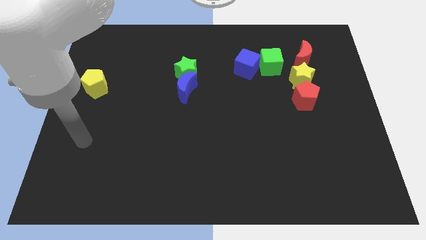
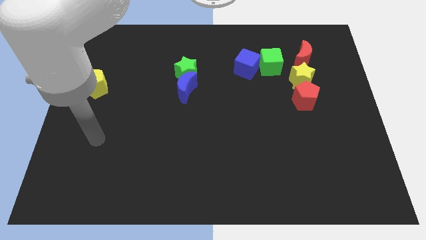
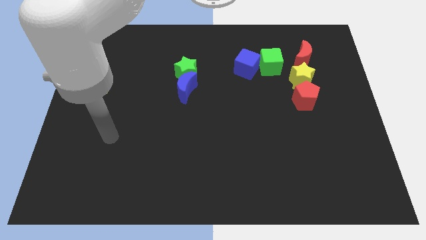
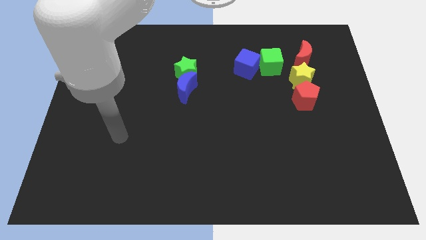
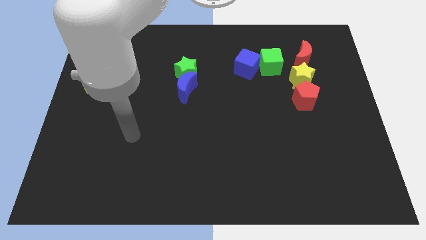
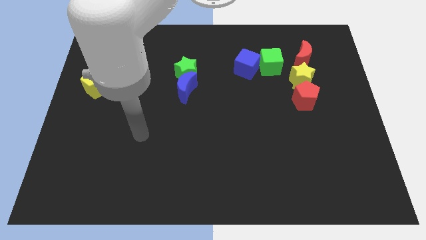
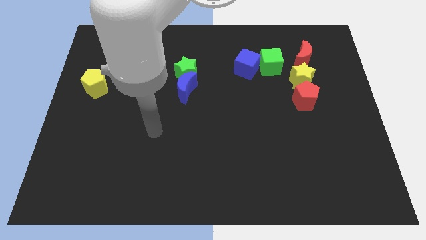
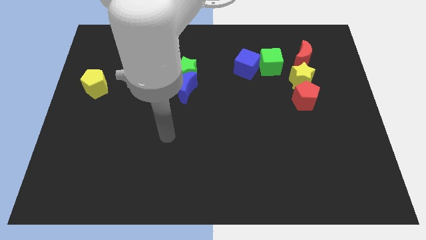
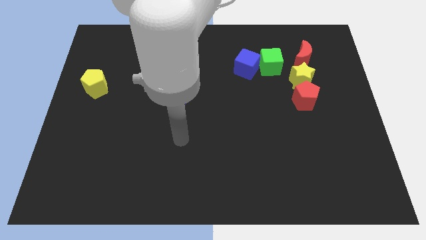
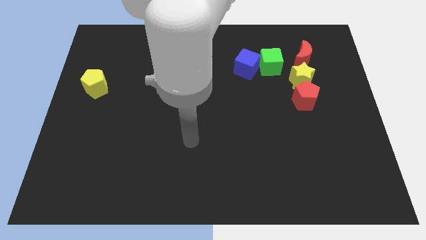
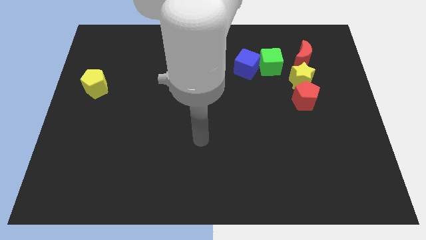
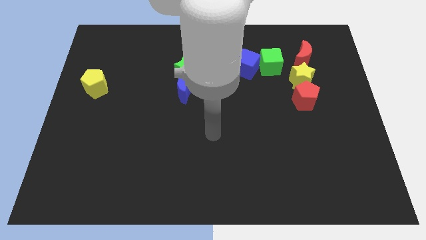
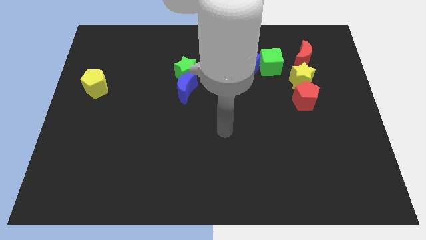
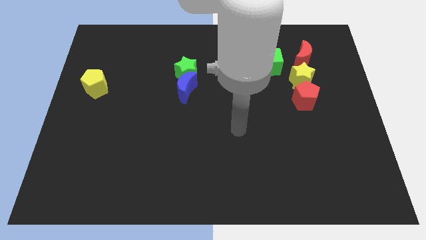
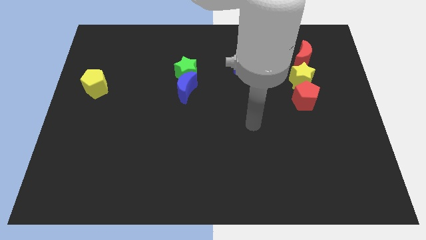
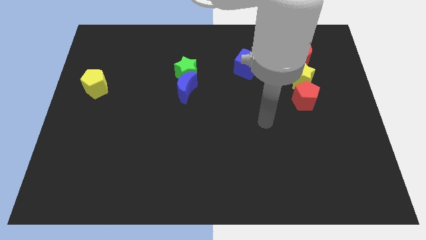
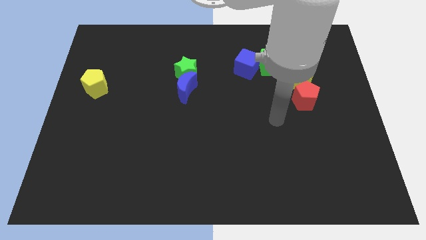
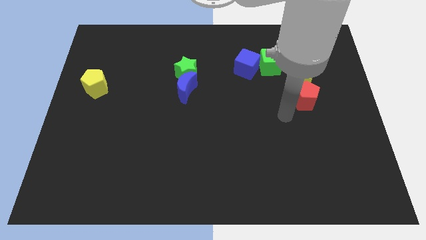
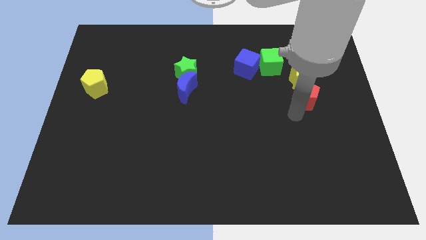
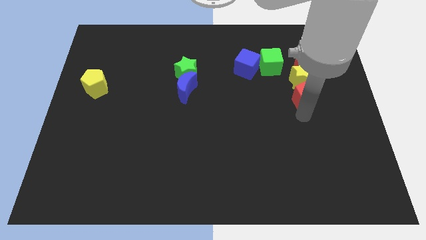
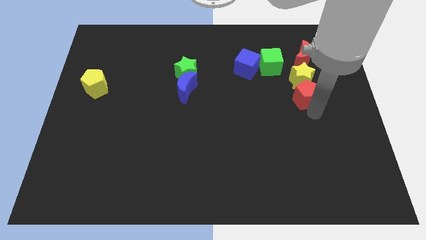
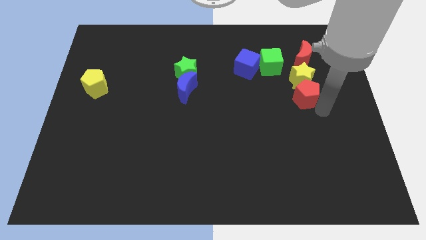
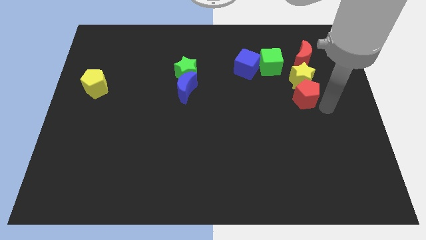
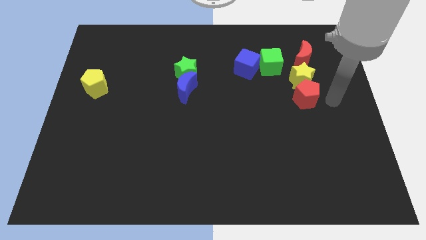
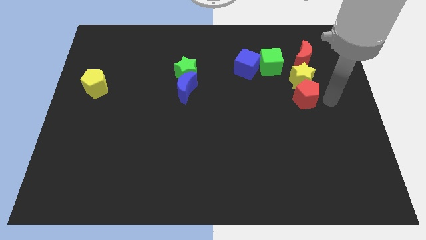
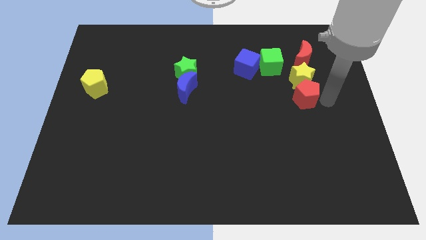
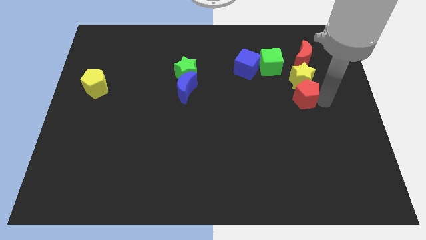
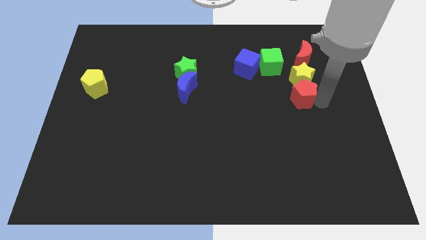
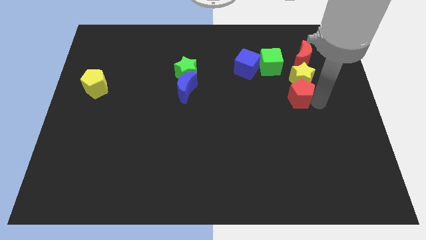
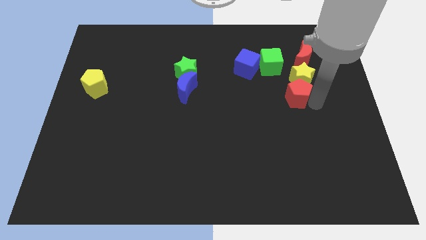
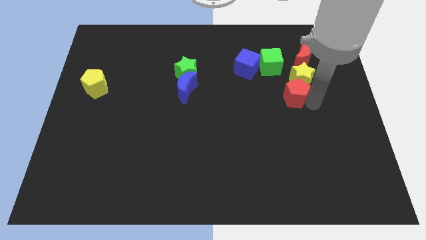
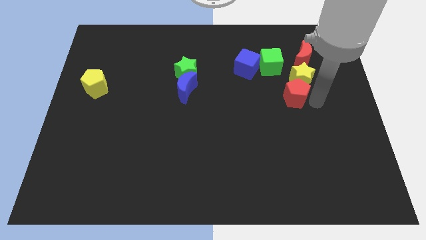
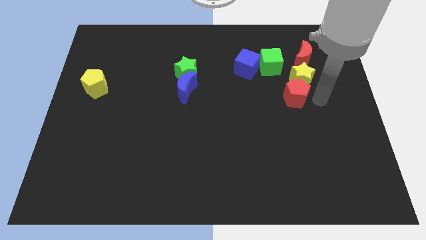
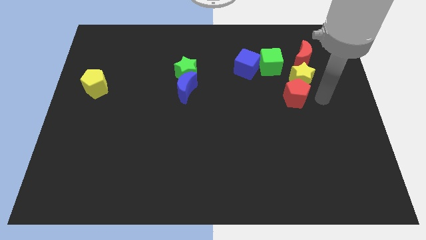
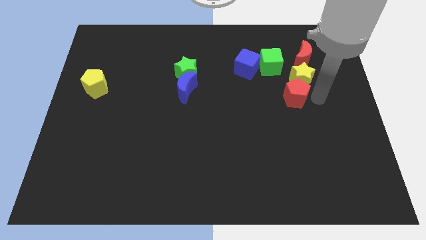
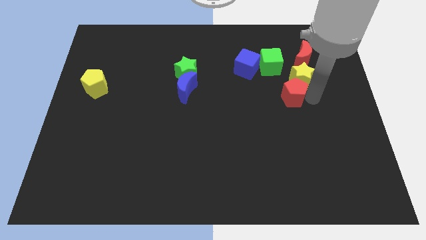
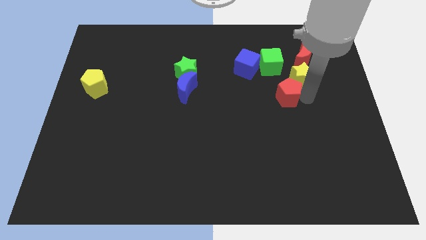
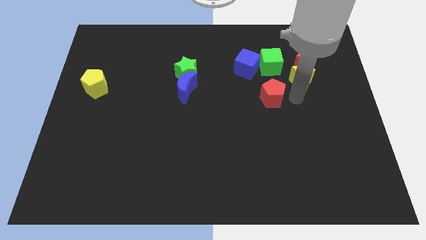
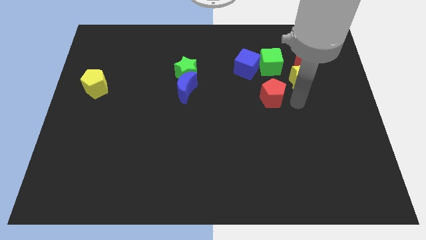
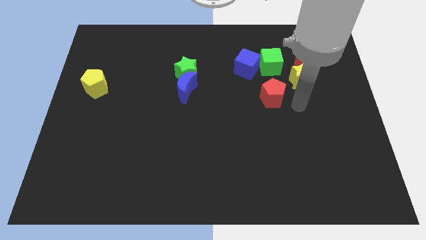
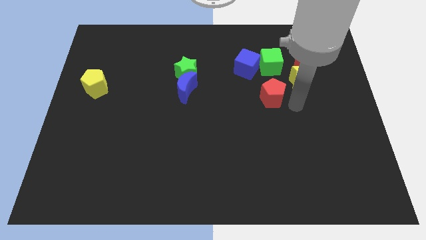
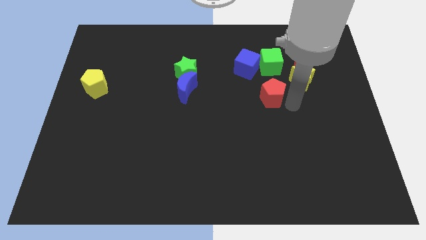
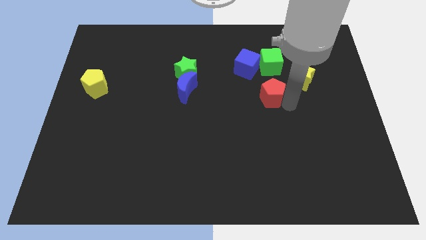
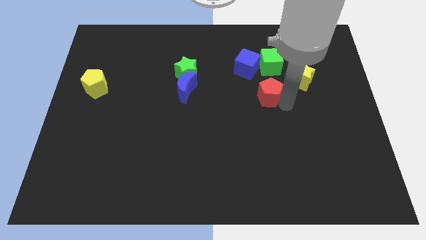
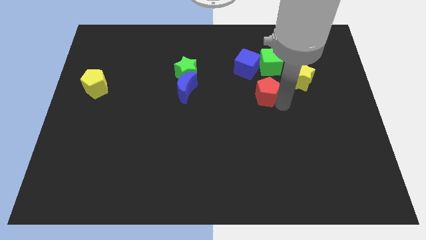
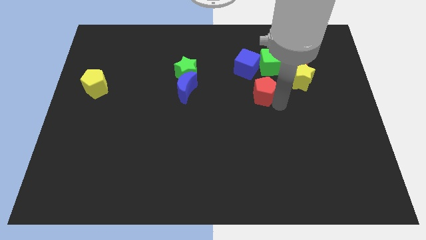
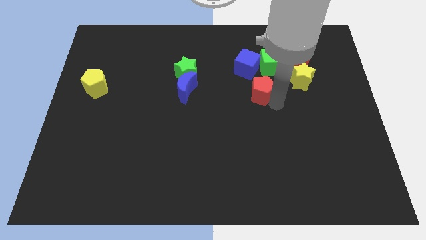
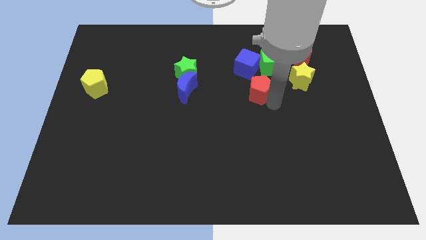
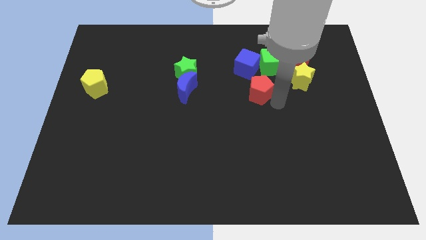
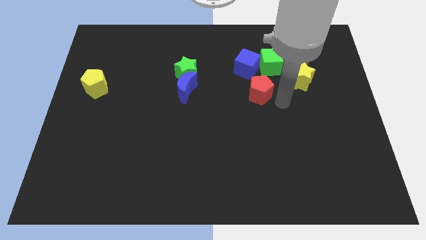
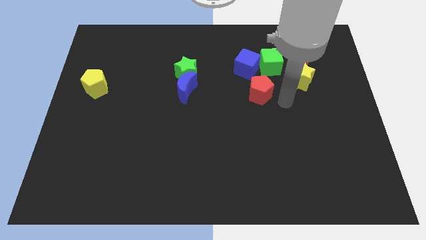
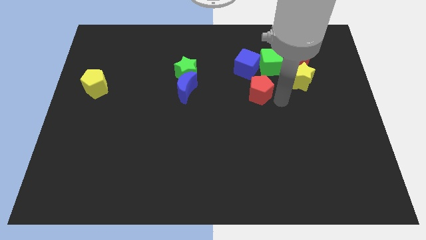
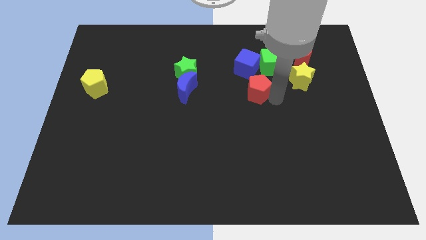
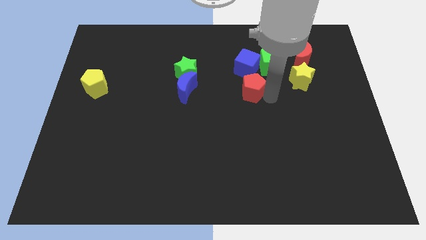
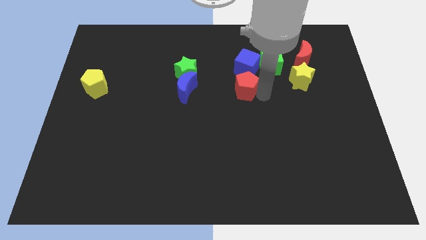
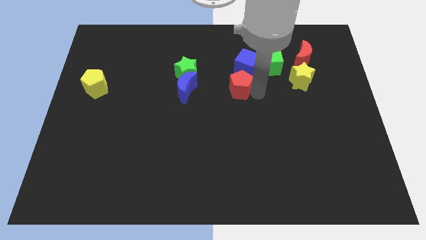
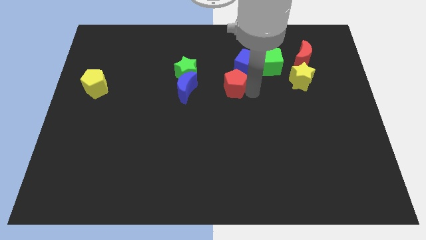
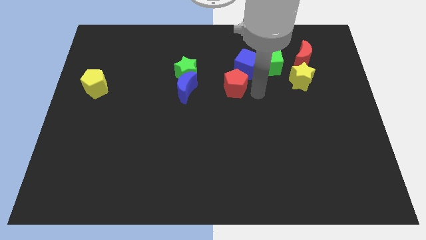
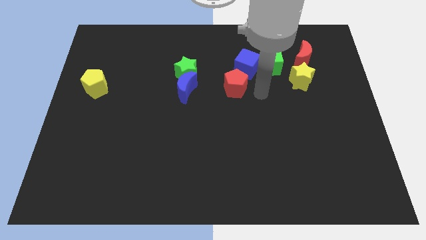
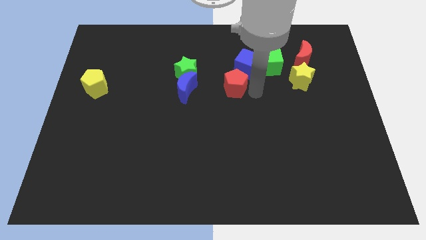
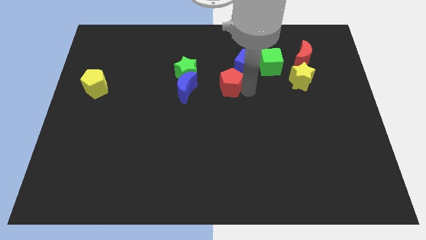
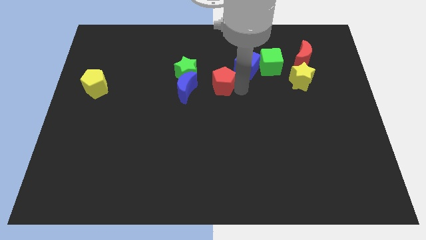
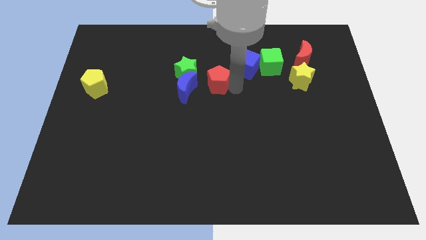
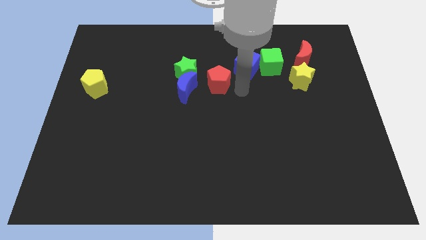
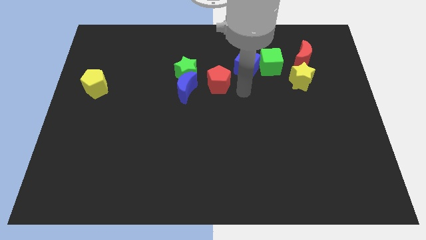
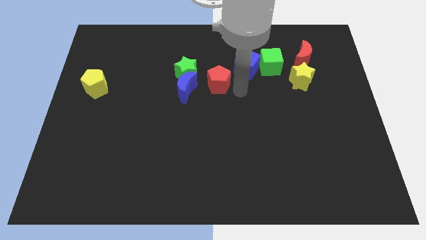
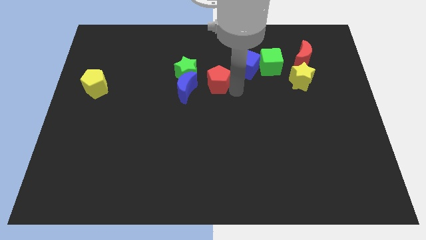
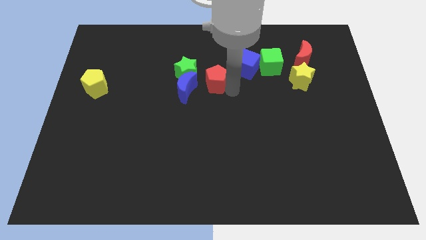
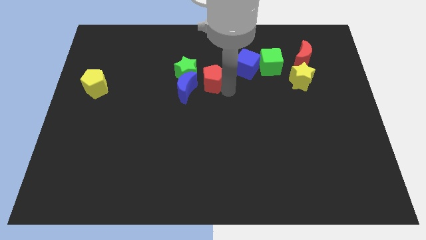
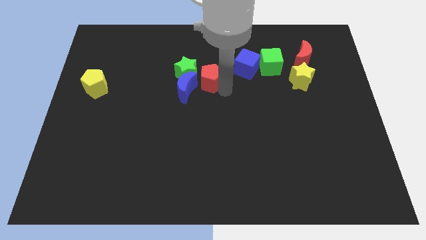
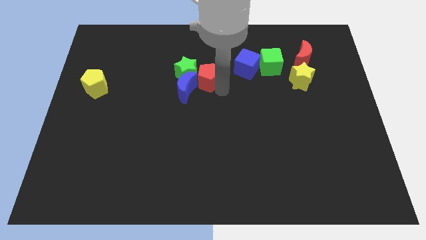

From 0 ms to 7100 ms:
slide the red pentagon to the green star

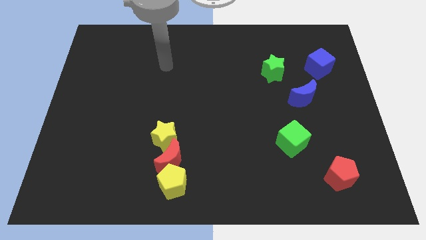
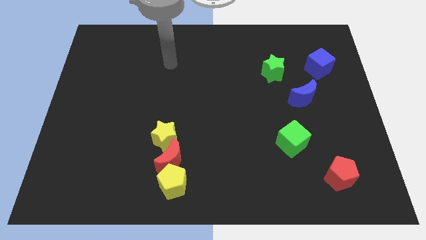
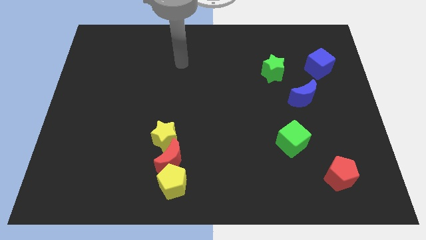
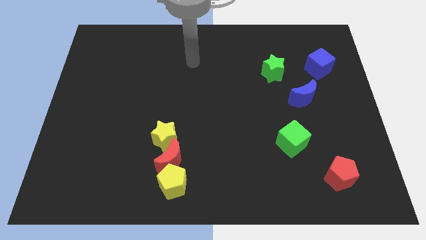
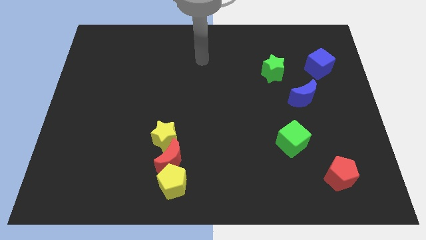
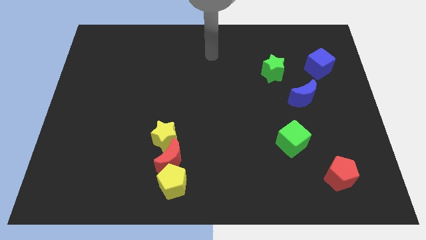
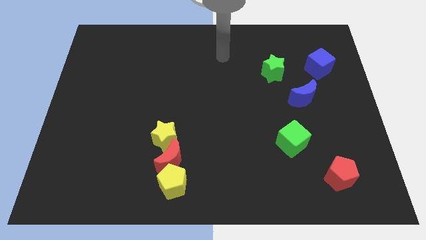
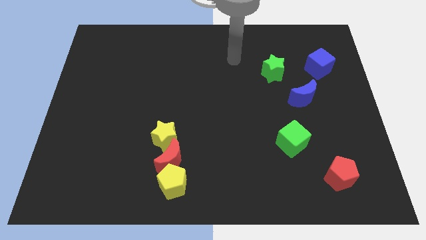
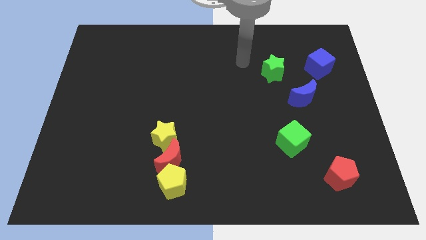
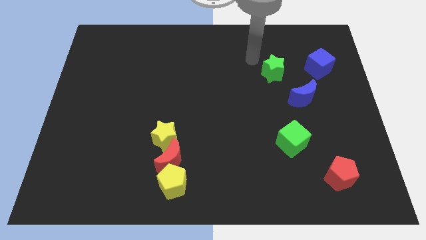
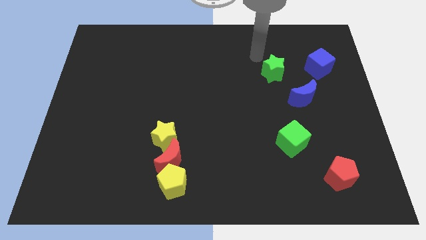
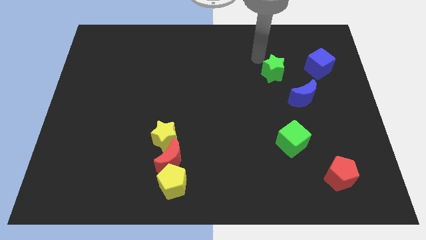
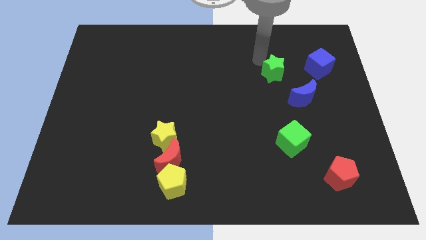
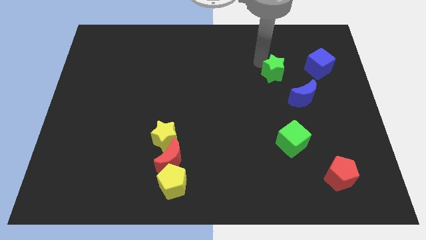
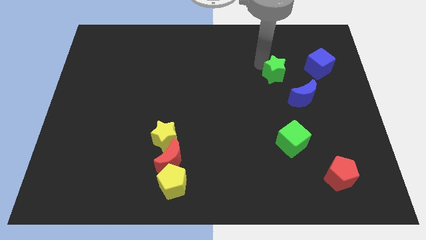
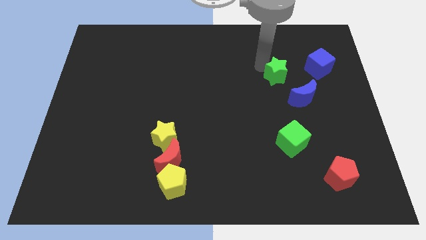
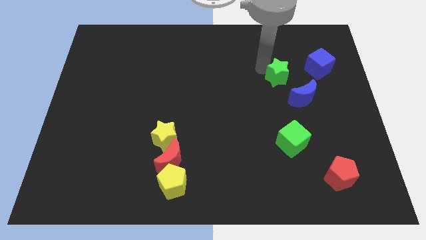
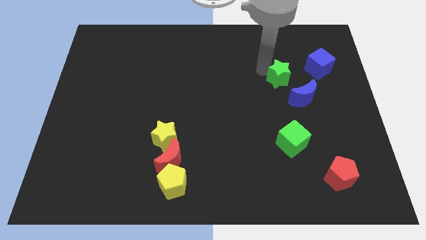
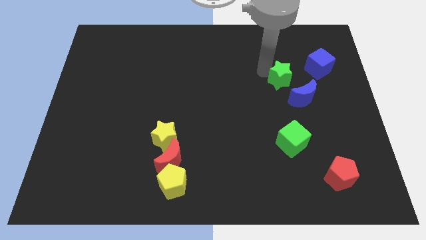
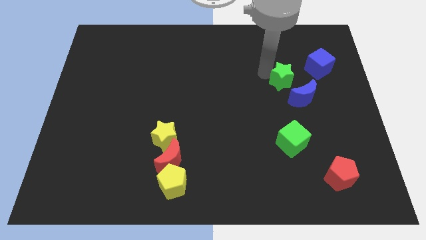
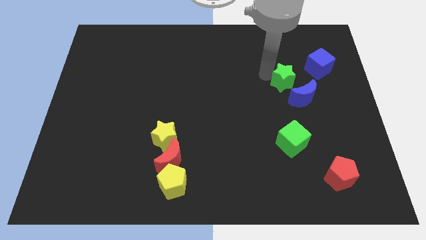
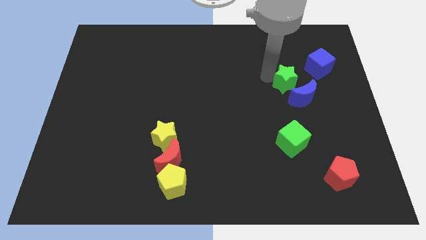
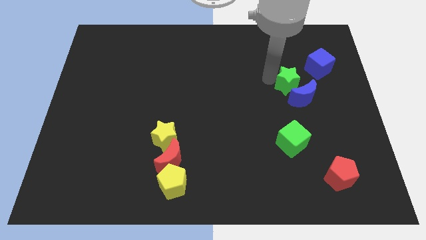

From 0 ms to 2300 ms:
move the green star to the blue moon
